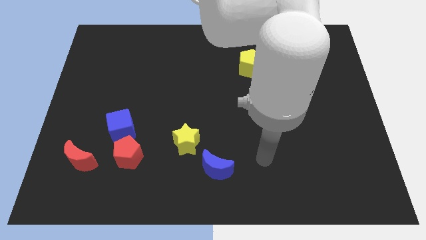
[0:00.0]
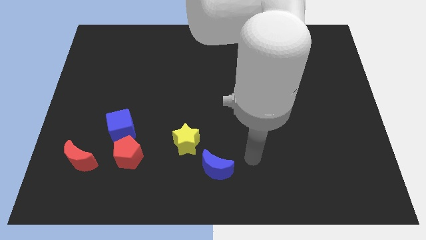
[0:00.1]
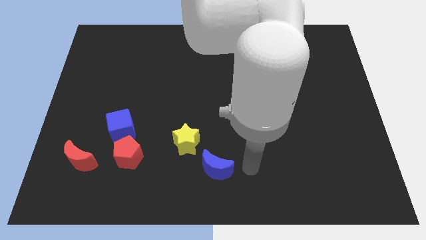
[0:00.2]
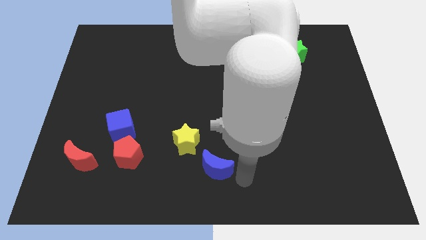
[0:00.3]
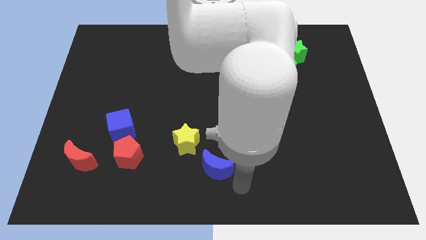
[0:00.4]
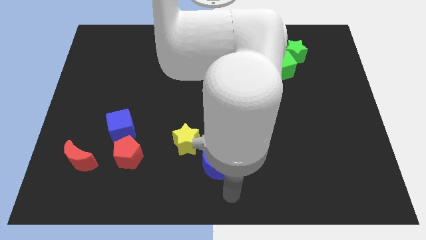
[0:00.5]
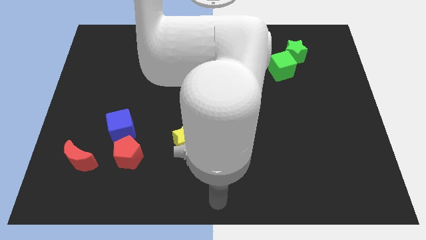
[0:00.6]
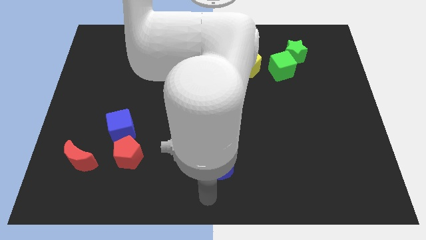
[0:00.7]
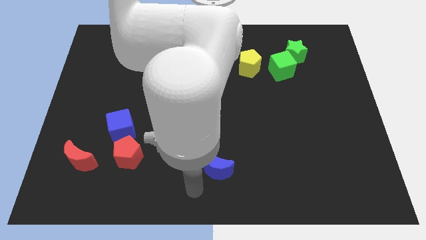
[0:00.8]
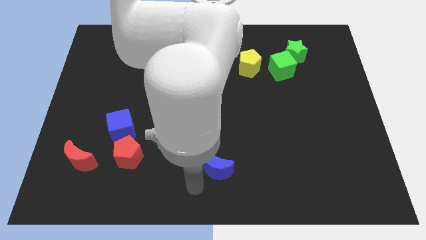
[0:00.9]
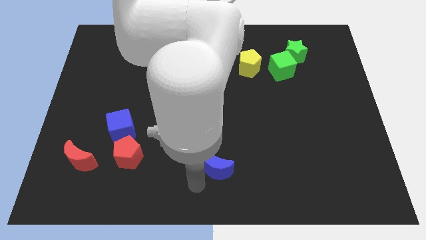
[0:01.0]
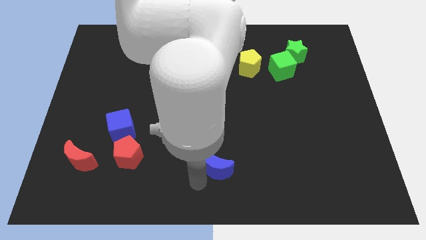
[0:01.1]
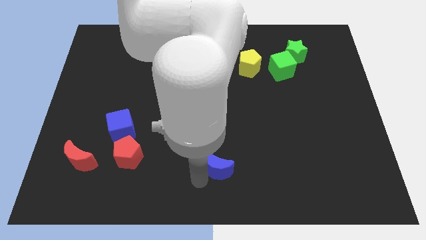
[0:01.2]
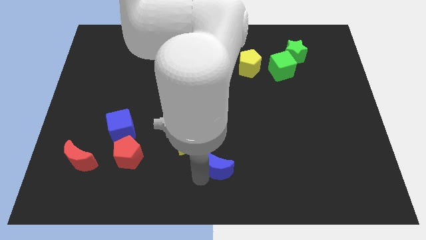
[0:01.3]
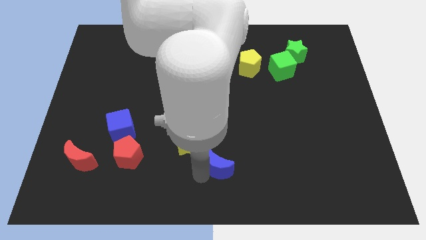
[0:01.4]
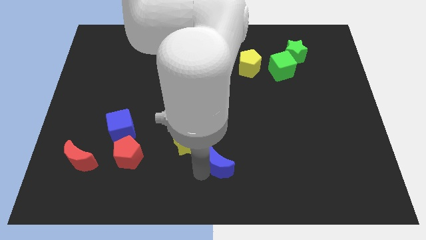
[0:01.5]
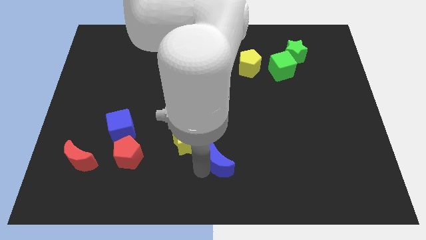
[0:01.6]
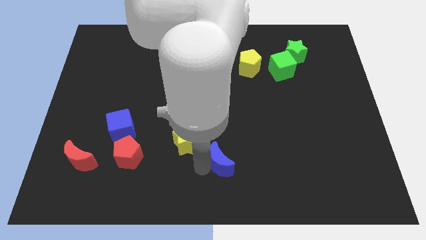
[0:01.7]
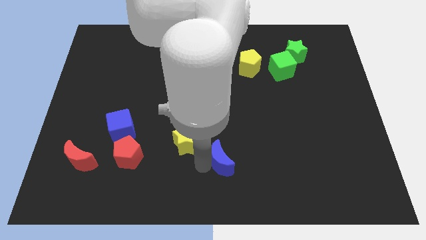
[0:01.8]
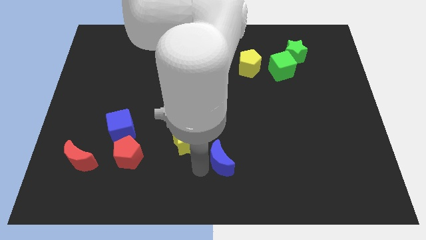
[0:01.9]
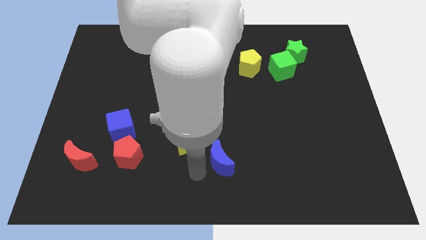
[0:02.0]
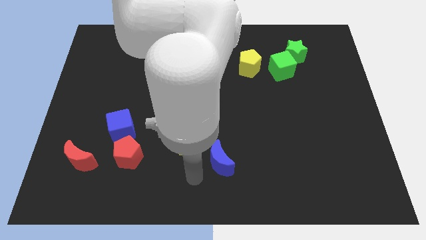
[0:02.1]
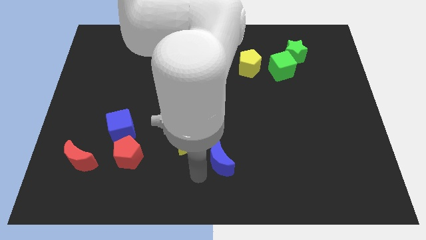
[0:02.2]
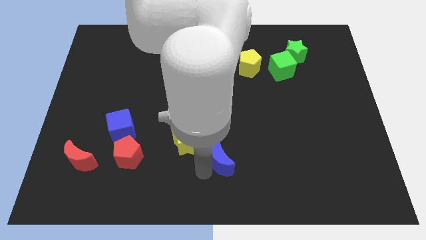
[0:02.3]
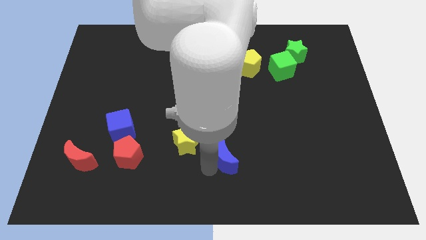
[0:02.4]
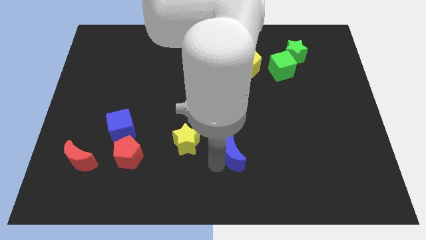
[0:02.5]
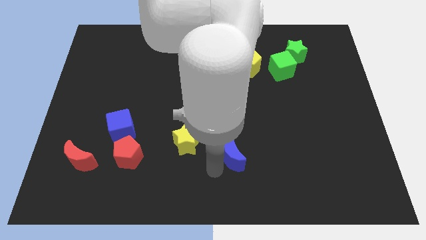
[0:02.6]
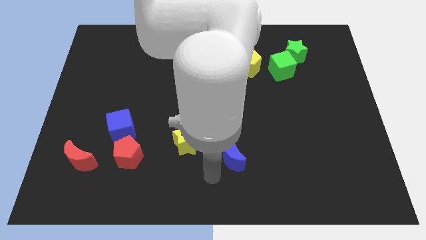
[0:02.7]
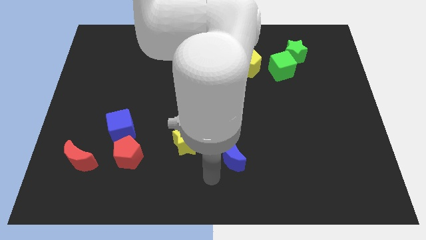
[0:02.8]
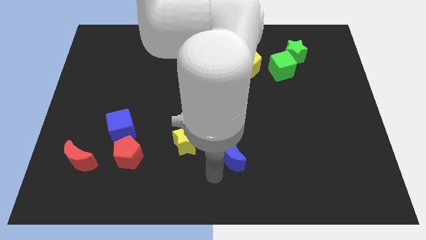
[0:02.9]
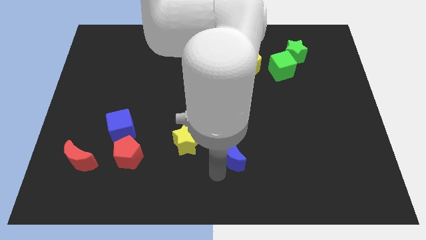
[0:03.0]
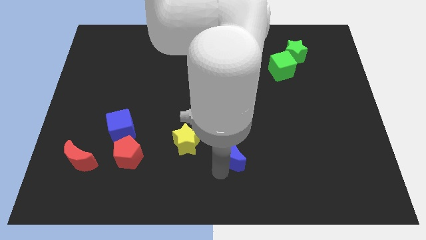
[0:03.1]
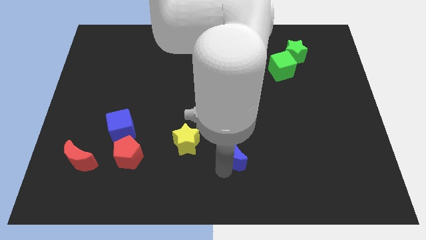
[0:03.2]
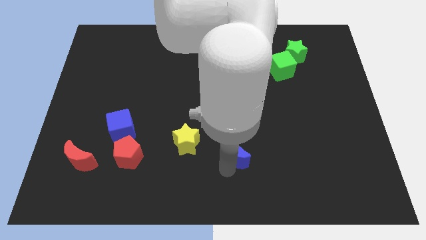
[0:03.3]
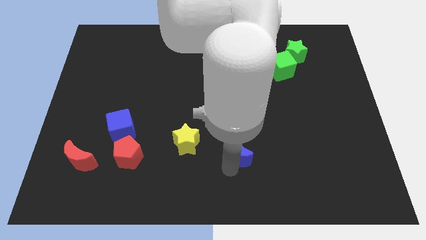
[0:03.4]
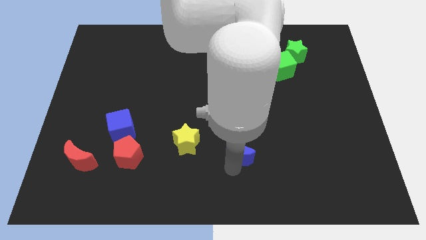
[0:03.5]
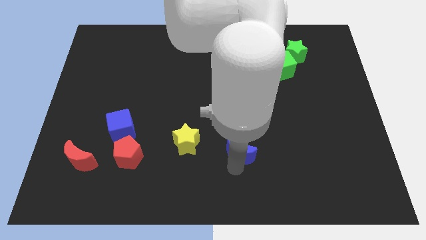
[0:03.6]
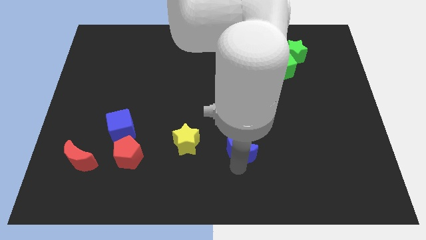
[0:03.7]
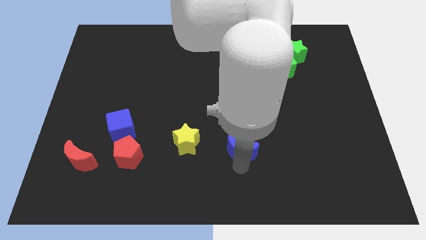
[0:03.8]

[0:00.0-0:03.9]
slide the blue moon a bit up and then right

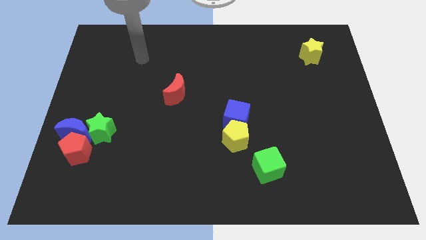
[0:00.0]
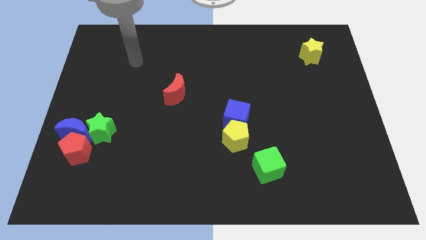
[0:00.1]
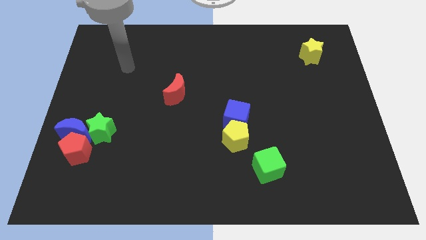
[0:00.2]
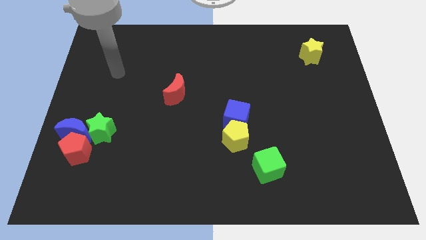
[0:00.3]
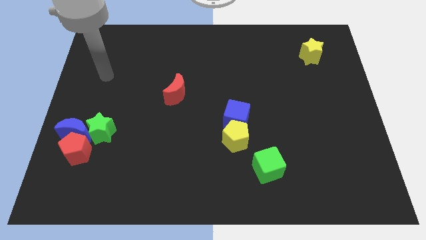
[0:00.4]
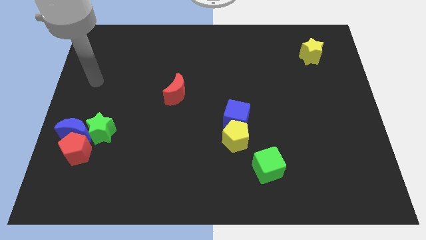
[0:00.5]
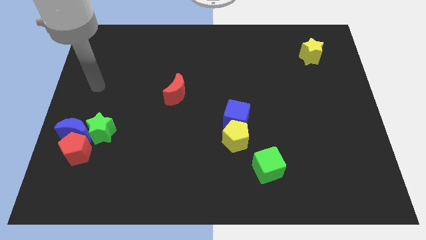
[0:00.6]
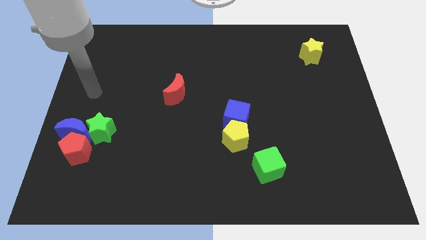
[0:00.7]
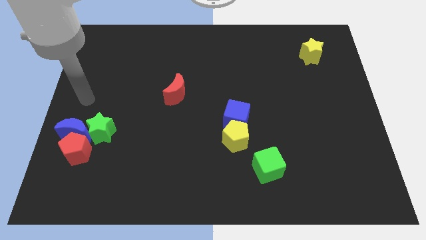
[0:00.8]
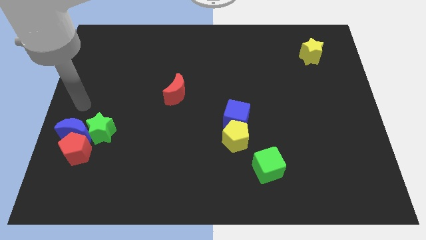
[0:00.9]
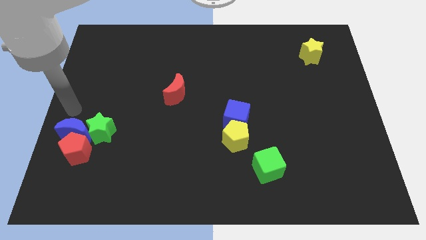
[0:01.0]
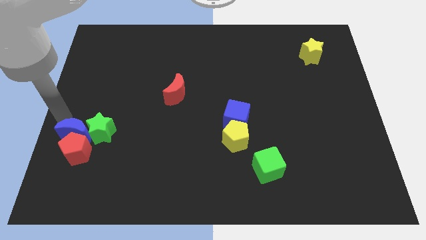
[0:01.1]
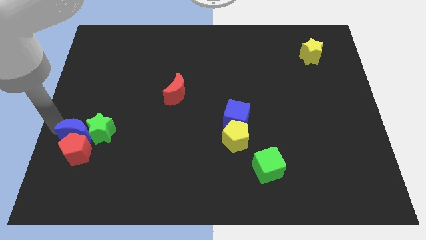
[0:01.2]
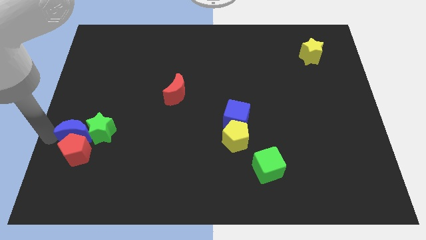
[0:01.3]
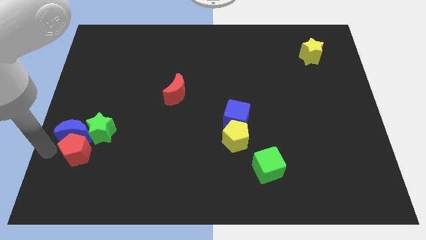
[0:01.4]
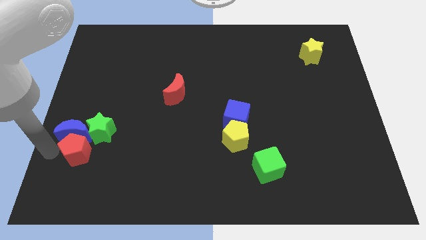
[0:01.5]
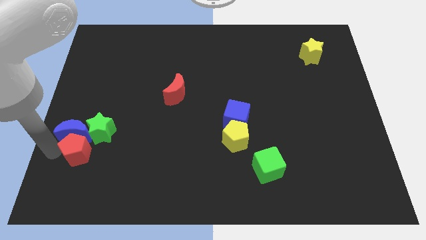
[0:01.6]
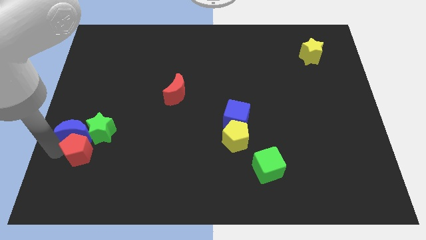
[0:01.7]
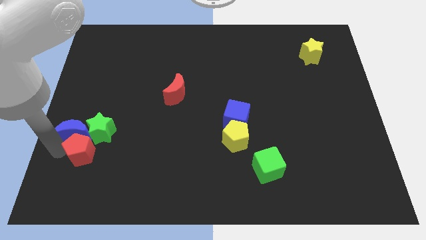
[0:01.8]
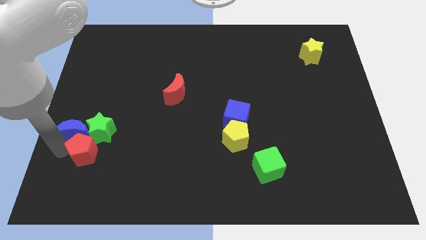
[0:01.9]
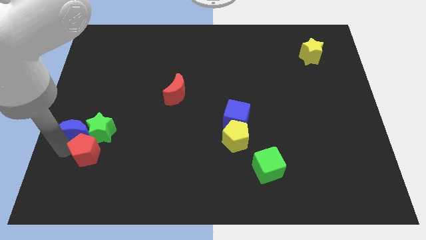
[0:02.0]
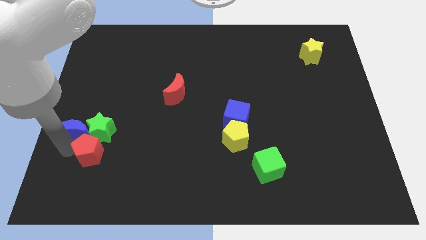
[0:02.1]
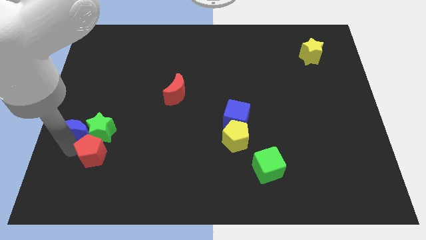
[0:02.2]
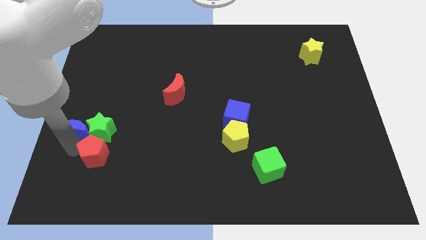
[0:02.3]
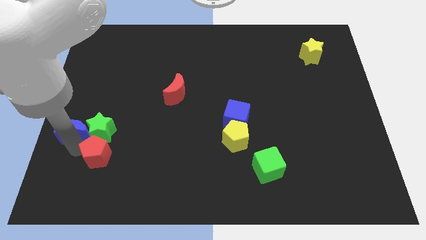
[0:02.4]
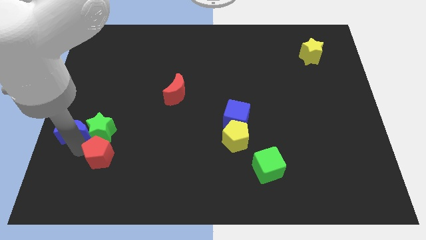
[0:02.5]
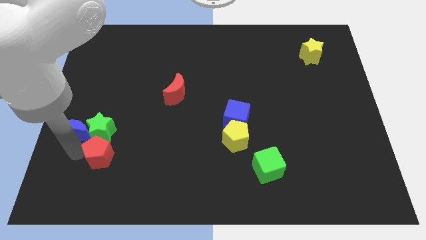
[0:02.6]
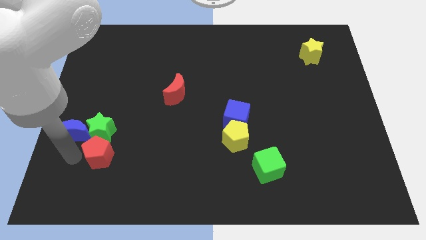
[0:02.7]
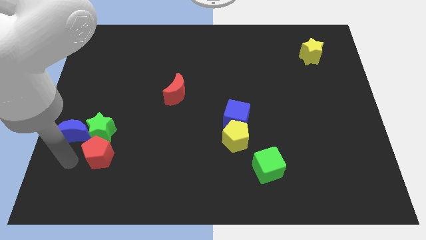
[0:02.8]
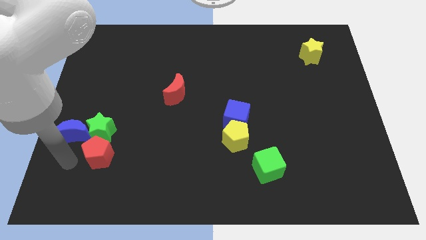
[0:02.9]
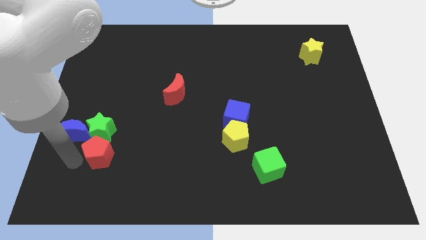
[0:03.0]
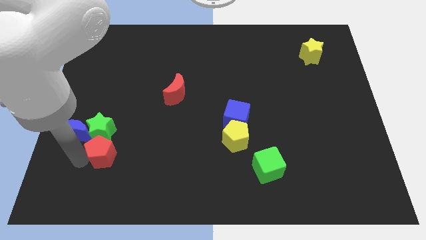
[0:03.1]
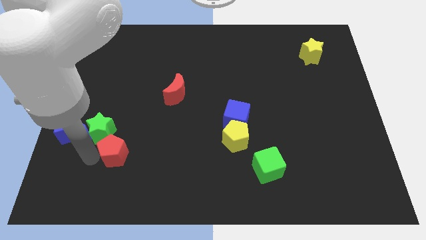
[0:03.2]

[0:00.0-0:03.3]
slide the red pentagon right slightly

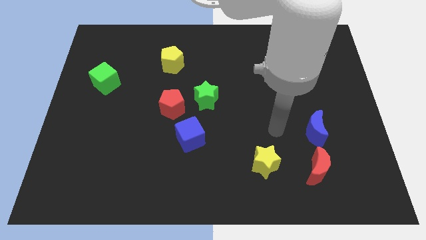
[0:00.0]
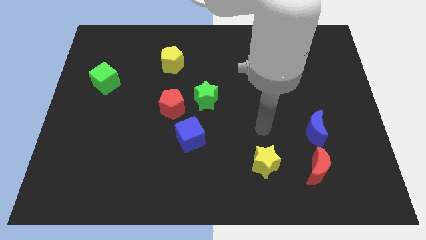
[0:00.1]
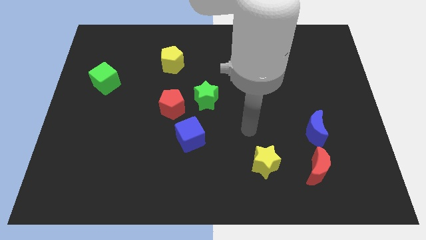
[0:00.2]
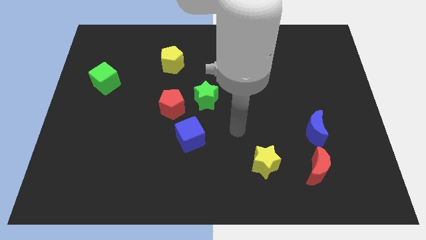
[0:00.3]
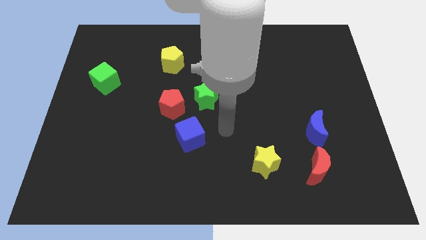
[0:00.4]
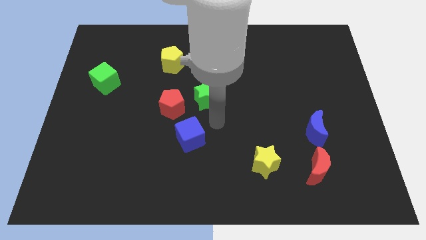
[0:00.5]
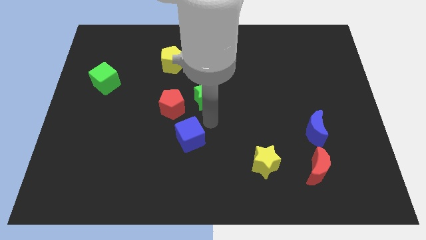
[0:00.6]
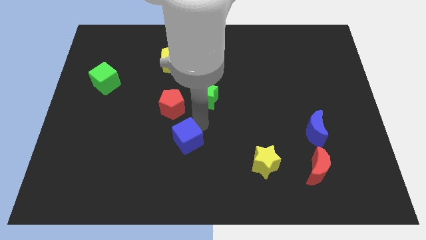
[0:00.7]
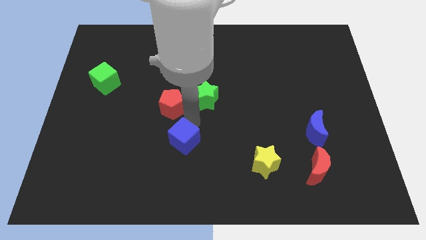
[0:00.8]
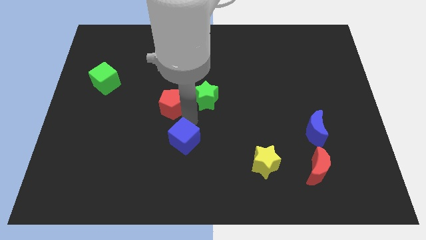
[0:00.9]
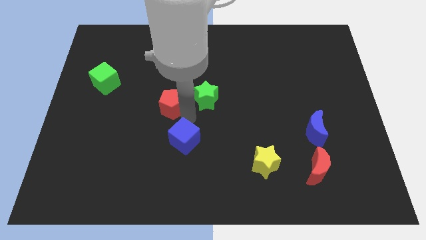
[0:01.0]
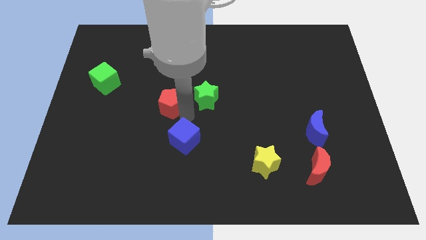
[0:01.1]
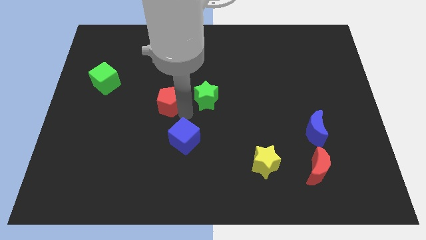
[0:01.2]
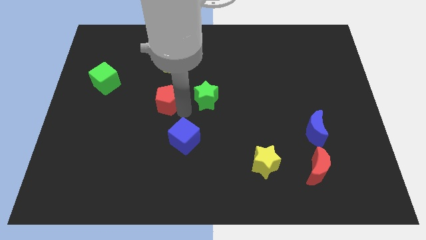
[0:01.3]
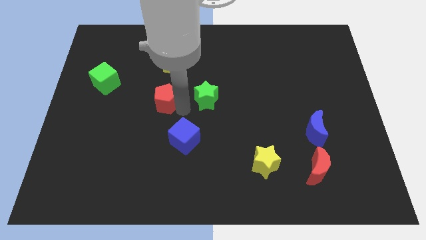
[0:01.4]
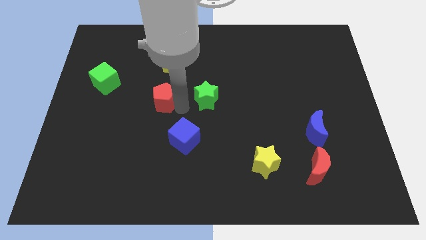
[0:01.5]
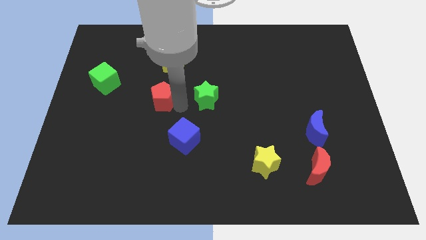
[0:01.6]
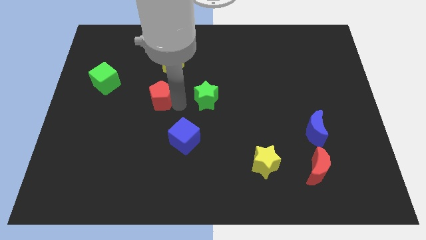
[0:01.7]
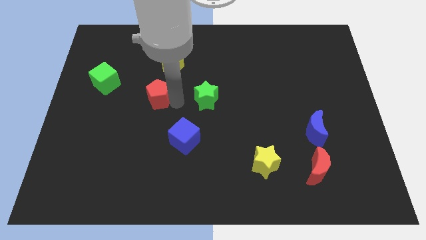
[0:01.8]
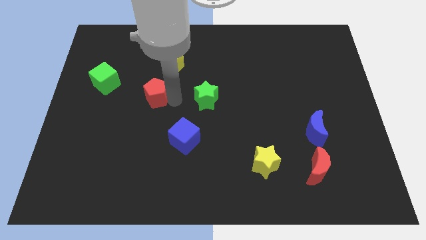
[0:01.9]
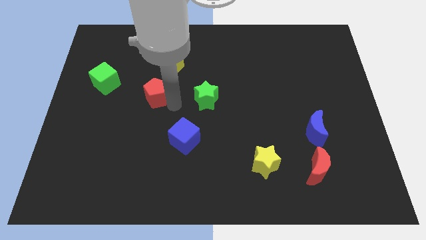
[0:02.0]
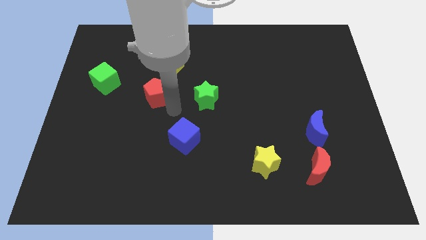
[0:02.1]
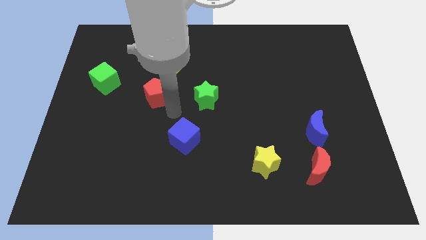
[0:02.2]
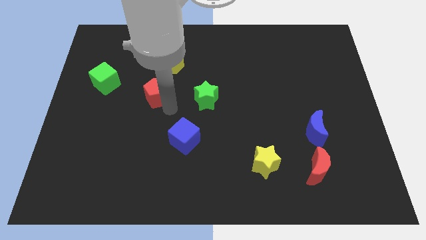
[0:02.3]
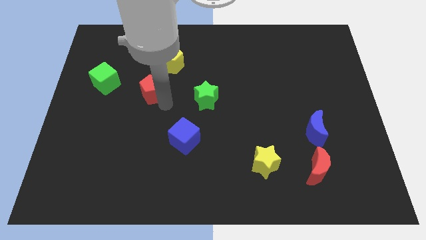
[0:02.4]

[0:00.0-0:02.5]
push the red pentagon up and left slightly
